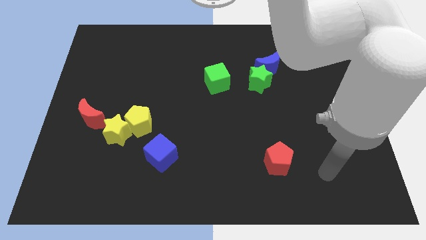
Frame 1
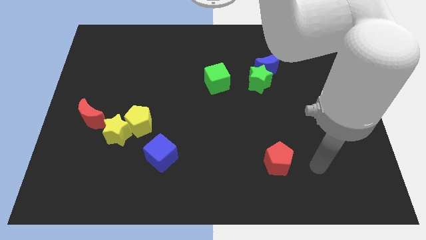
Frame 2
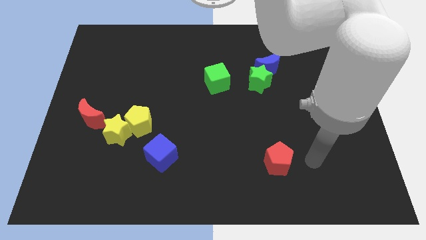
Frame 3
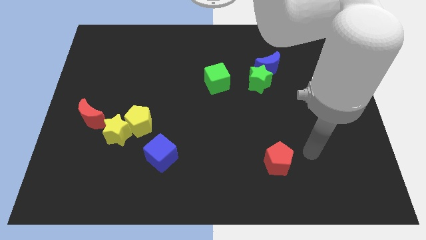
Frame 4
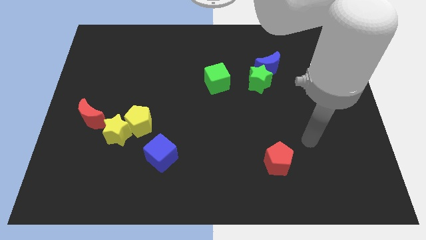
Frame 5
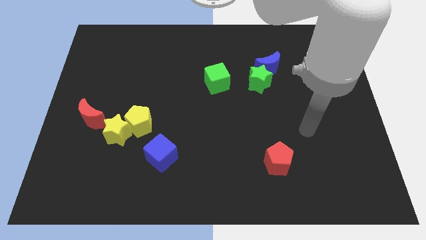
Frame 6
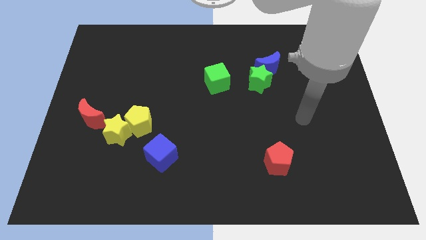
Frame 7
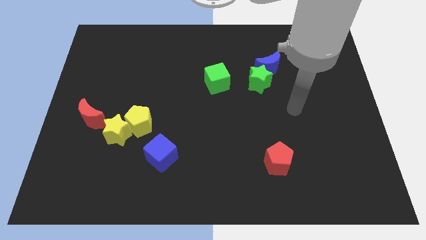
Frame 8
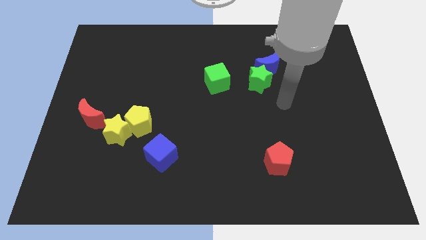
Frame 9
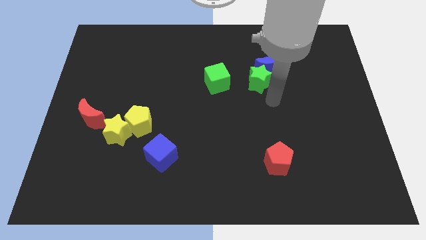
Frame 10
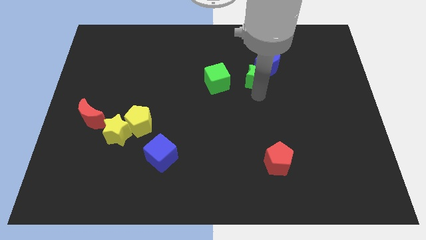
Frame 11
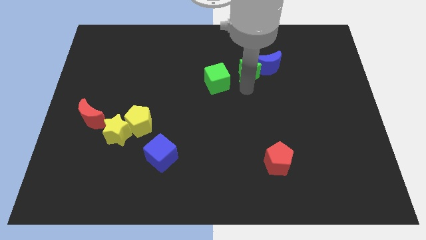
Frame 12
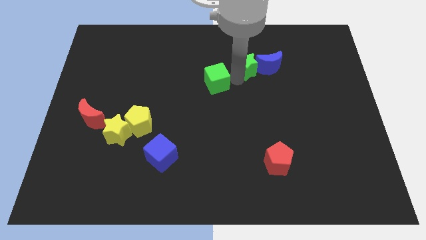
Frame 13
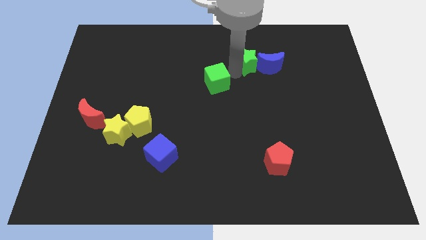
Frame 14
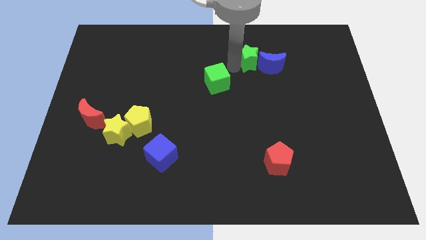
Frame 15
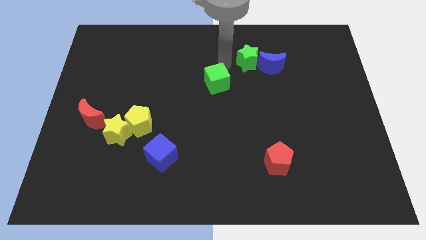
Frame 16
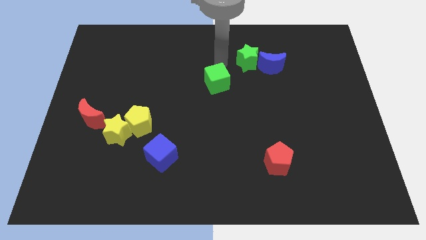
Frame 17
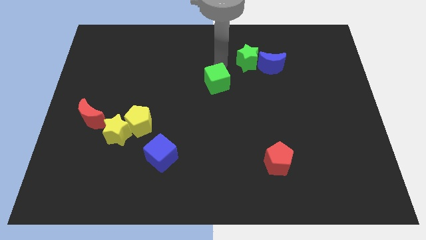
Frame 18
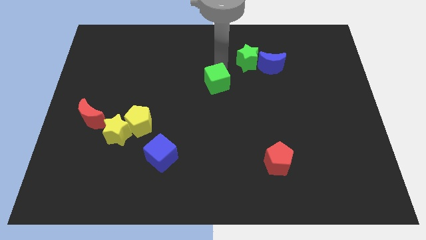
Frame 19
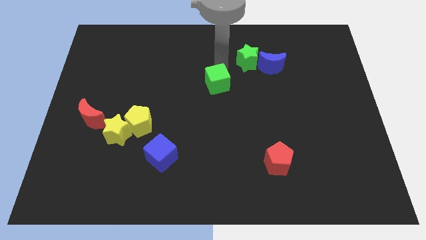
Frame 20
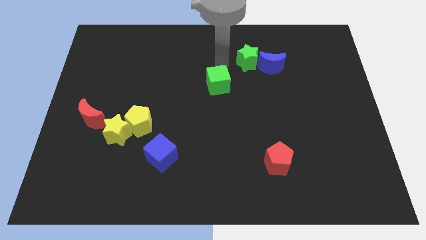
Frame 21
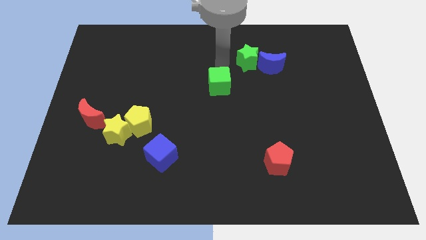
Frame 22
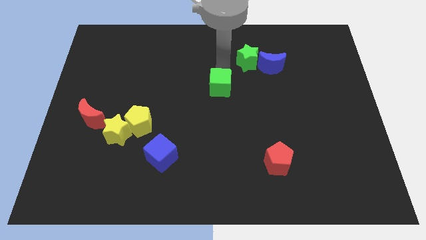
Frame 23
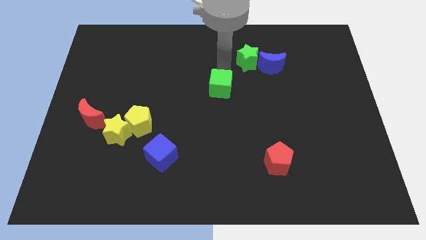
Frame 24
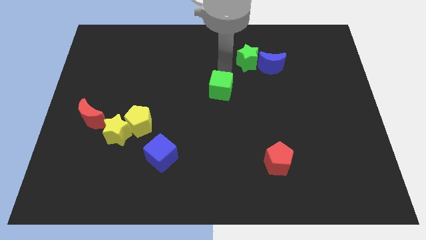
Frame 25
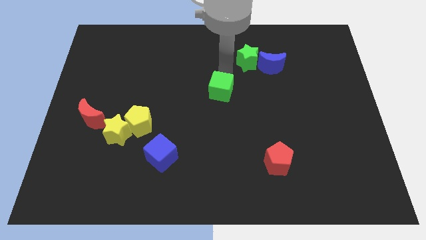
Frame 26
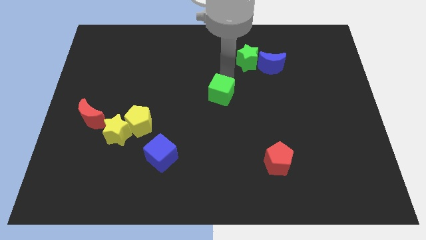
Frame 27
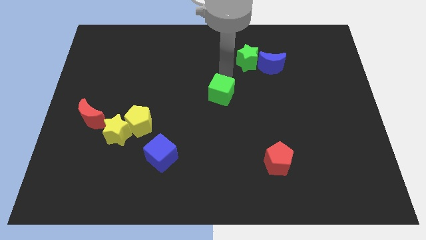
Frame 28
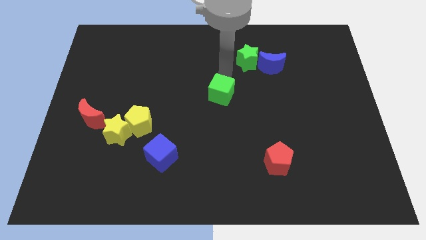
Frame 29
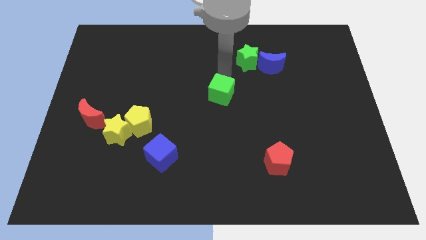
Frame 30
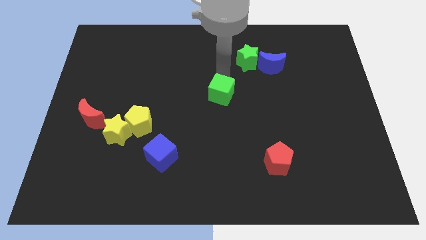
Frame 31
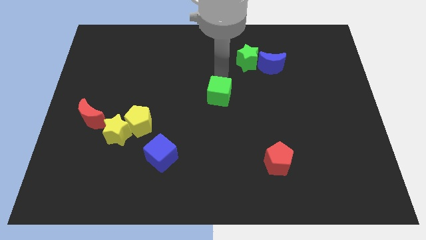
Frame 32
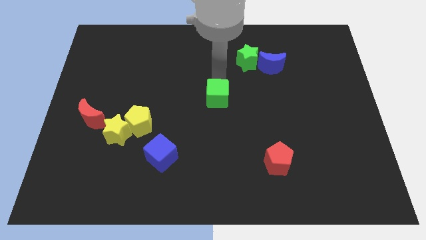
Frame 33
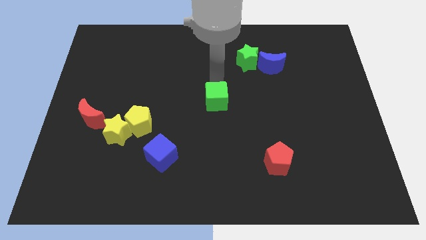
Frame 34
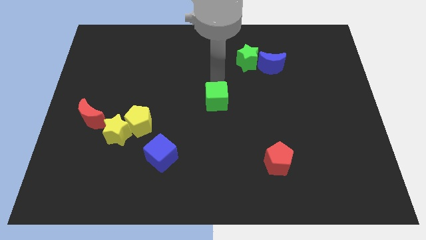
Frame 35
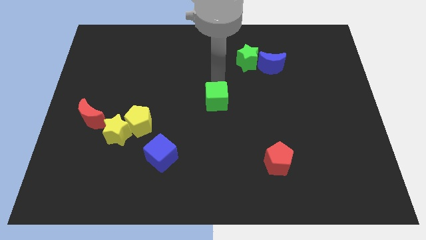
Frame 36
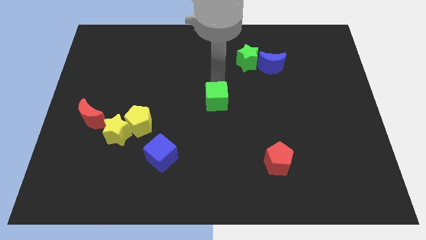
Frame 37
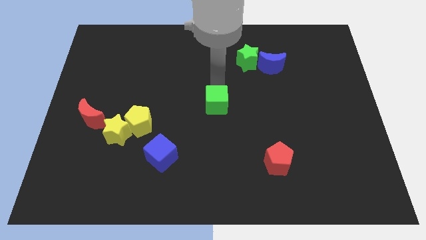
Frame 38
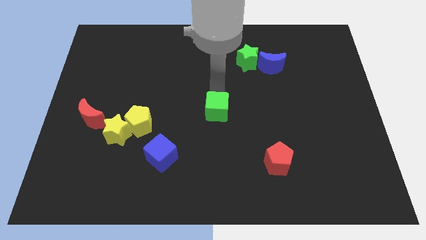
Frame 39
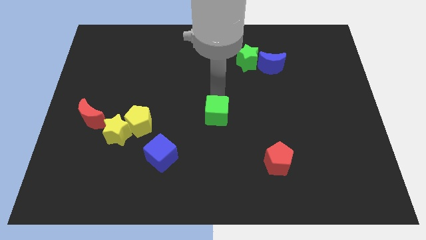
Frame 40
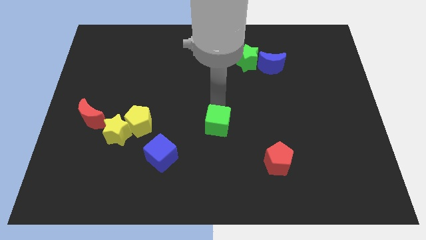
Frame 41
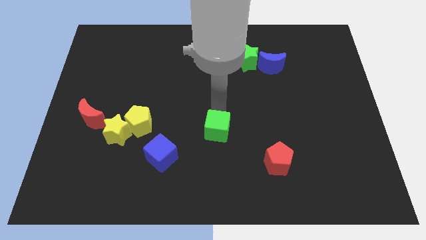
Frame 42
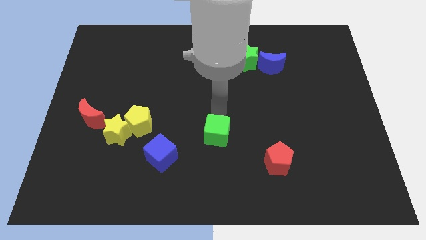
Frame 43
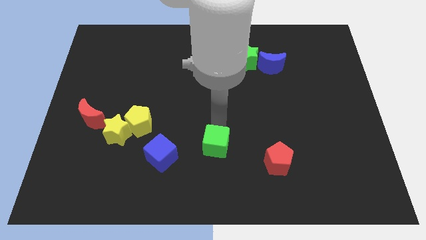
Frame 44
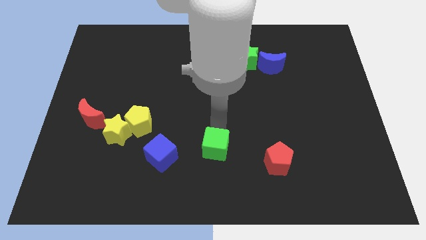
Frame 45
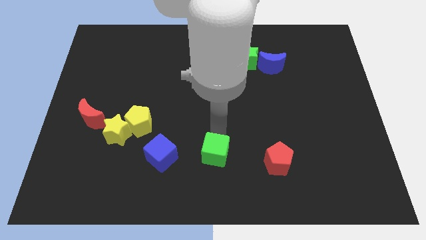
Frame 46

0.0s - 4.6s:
move the green cube to the bottom side

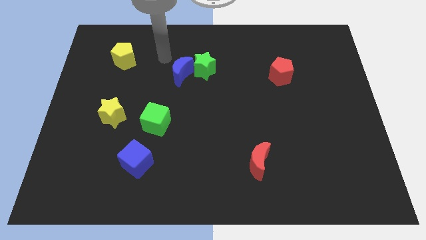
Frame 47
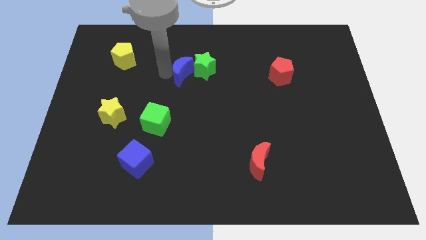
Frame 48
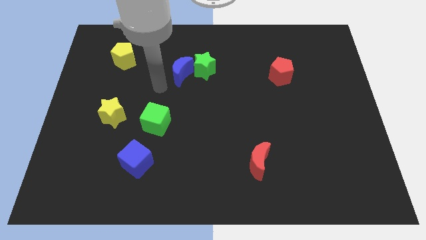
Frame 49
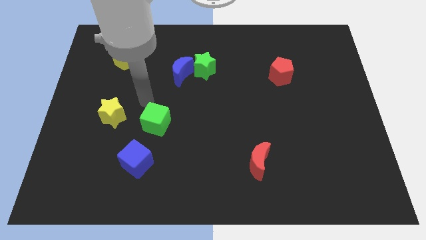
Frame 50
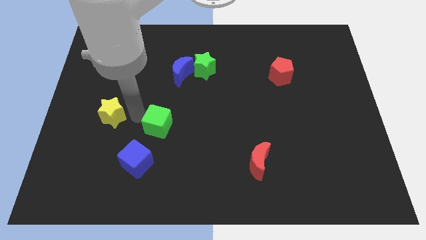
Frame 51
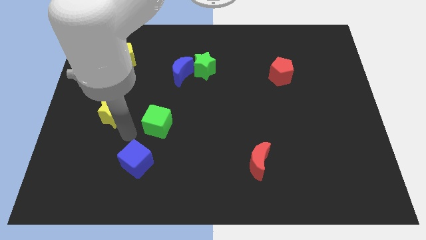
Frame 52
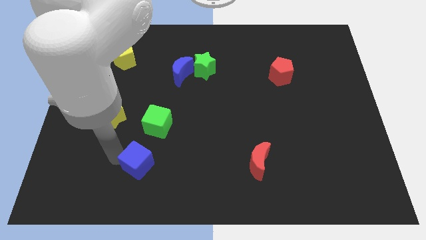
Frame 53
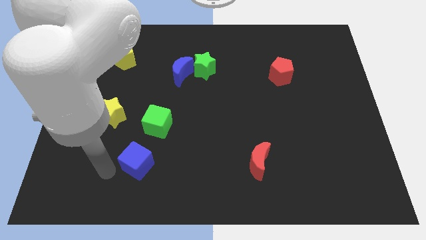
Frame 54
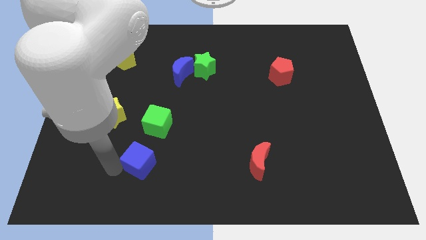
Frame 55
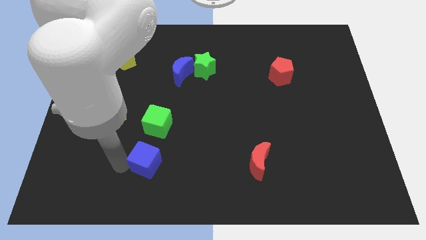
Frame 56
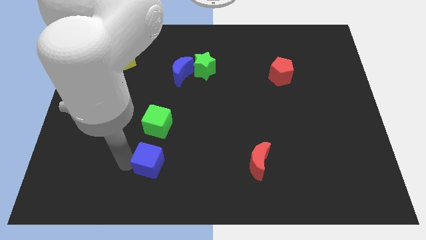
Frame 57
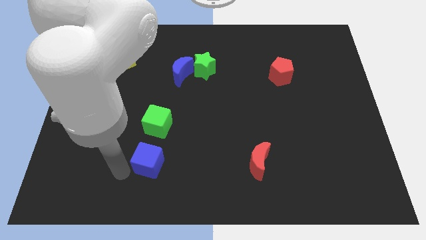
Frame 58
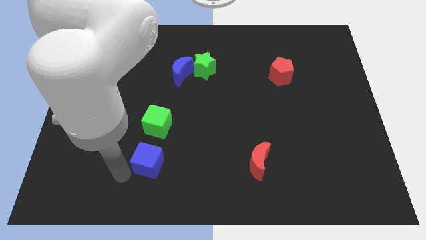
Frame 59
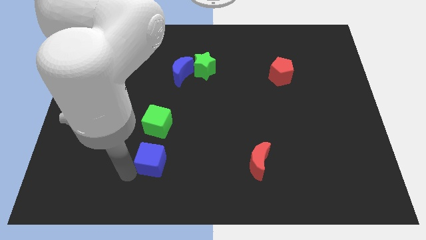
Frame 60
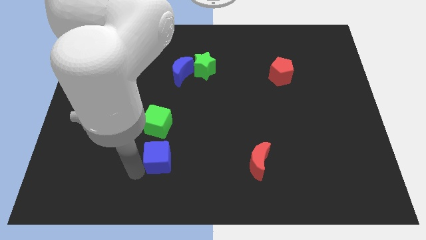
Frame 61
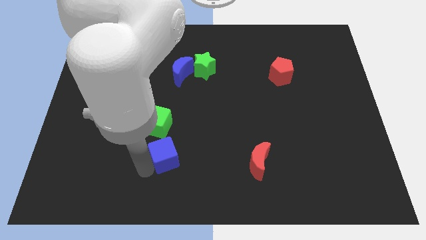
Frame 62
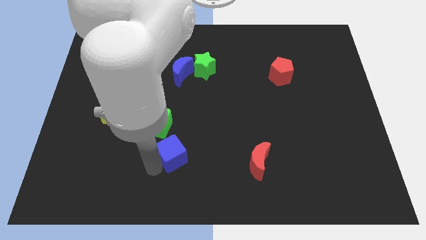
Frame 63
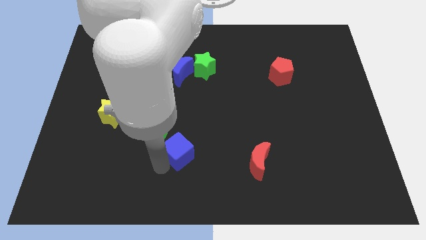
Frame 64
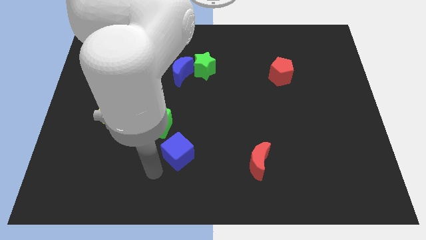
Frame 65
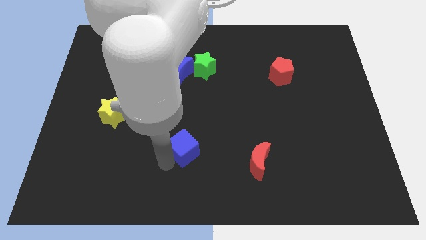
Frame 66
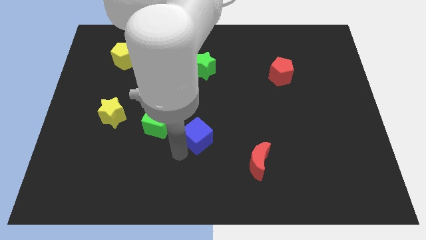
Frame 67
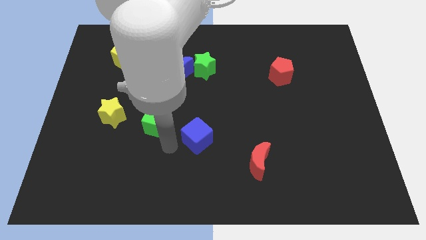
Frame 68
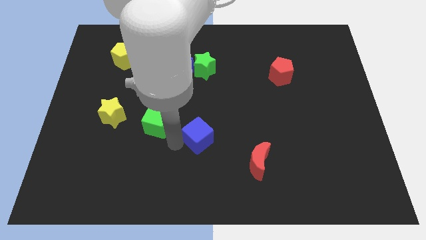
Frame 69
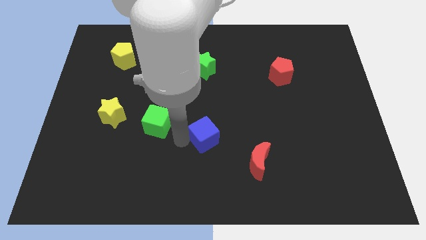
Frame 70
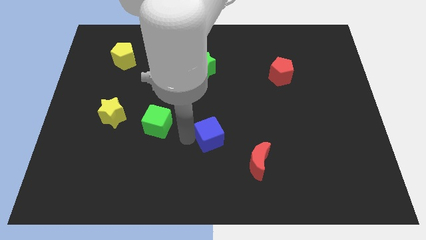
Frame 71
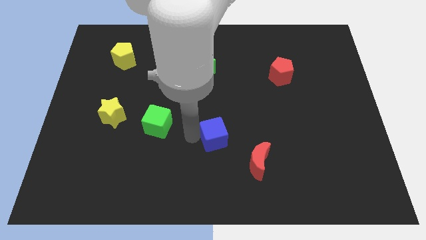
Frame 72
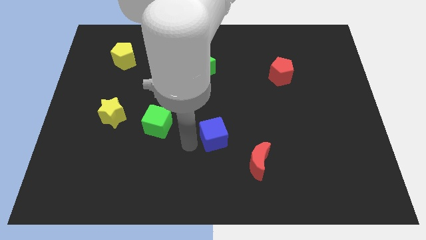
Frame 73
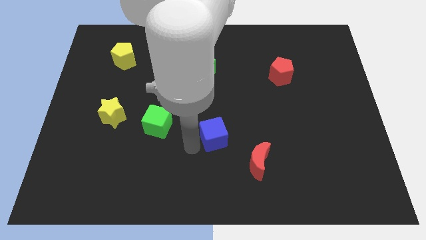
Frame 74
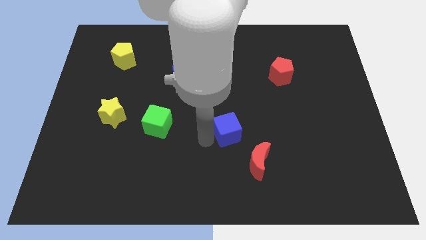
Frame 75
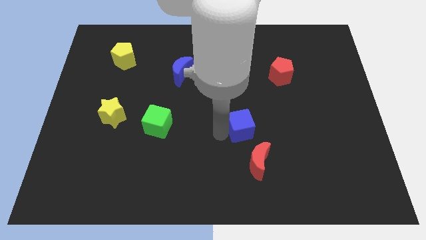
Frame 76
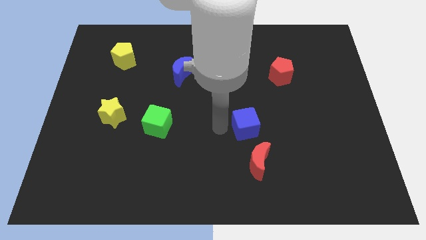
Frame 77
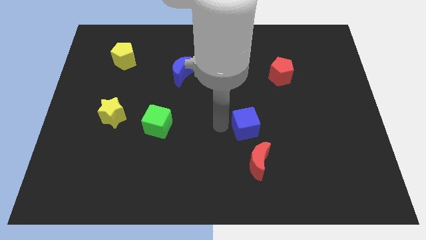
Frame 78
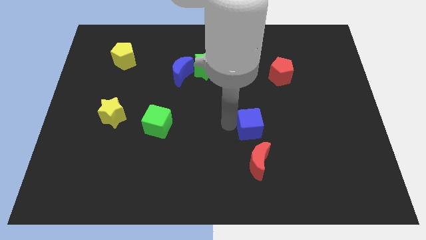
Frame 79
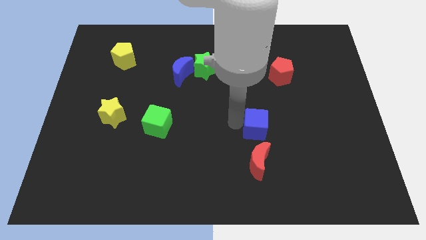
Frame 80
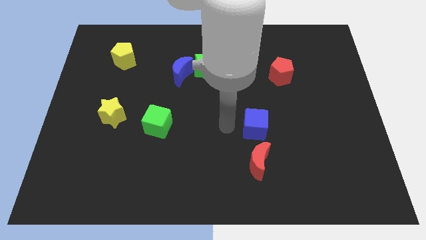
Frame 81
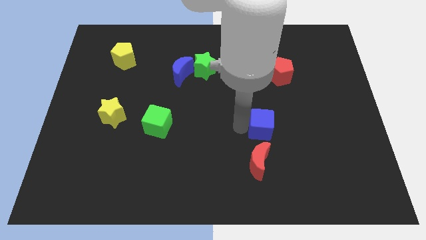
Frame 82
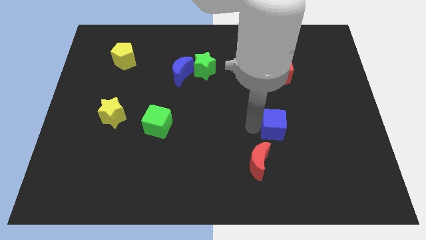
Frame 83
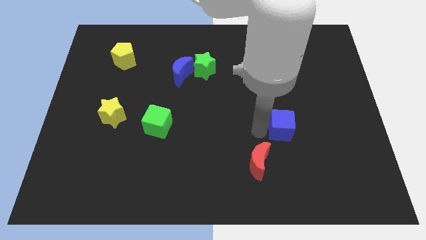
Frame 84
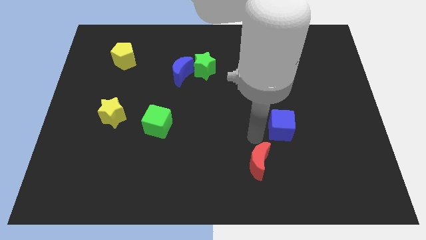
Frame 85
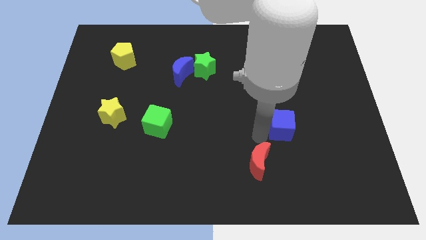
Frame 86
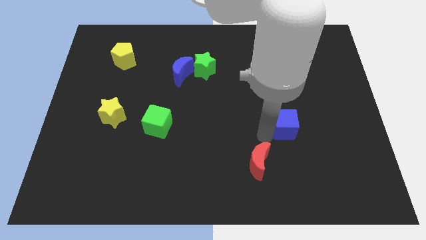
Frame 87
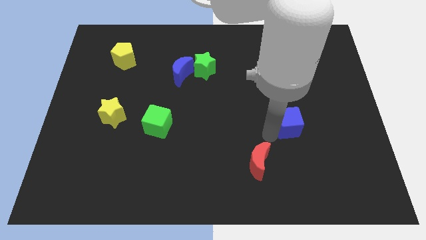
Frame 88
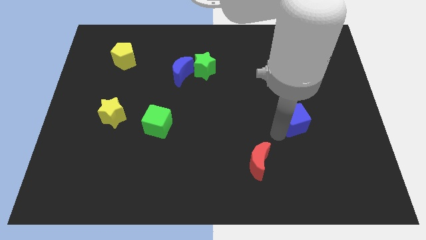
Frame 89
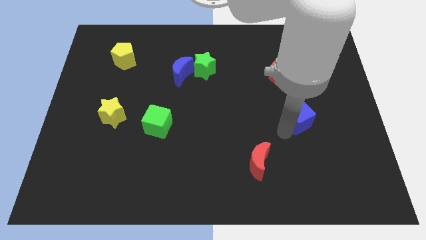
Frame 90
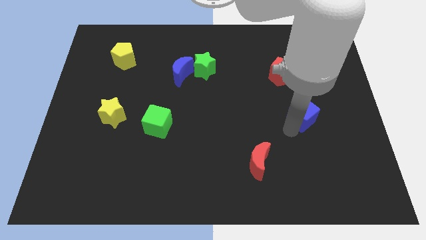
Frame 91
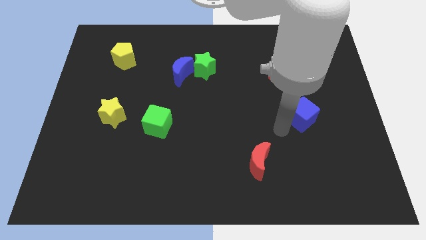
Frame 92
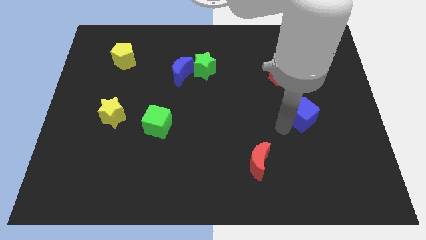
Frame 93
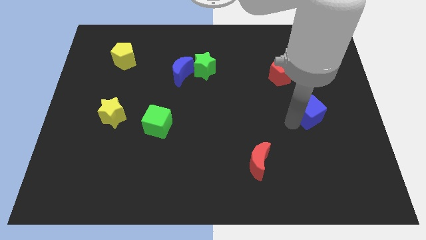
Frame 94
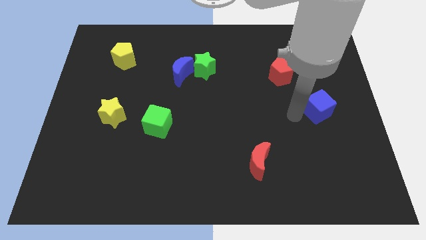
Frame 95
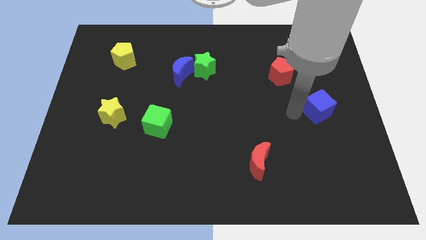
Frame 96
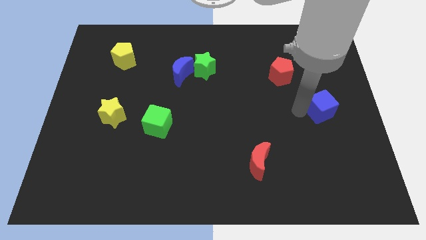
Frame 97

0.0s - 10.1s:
slide the blue cube to the right side of the board
